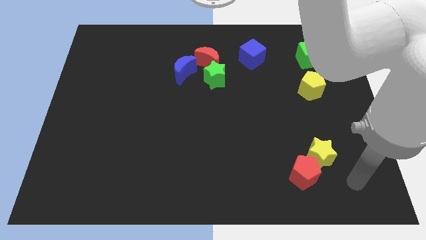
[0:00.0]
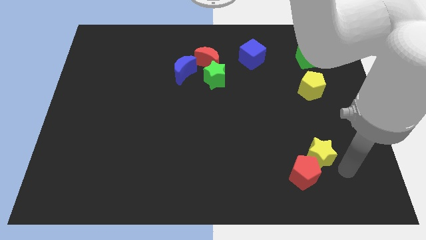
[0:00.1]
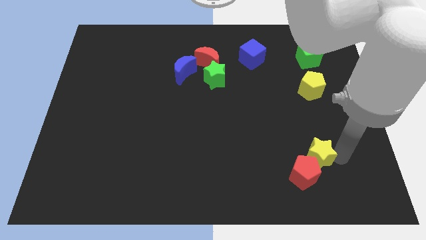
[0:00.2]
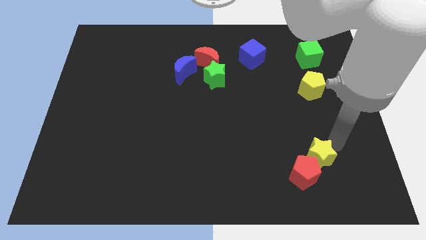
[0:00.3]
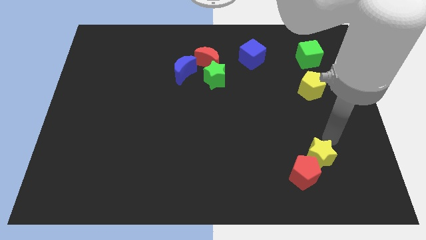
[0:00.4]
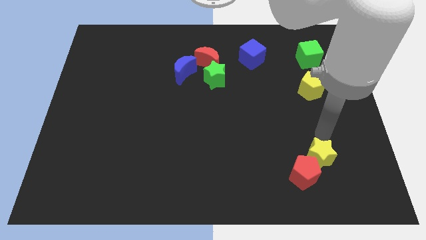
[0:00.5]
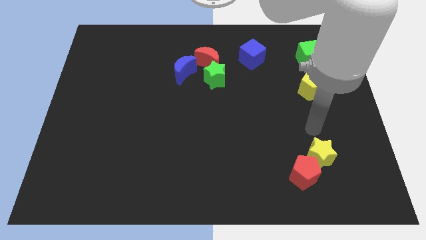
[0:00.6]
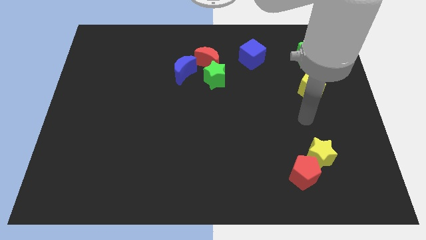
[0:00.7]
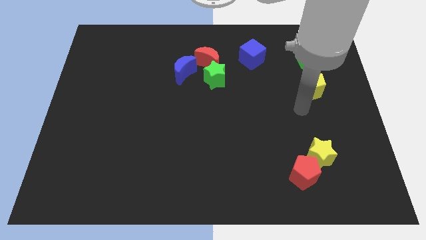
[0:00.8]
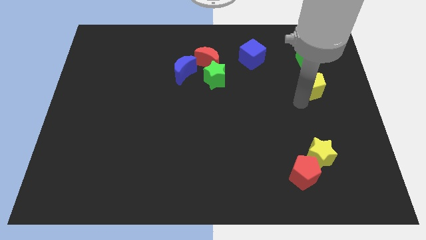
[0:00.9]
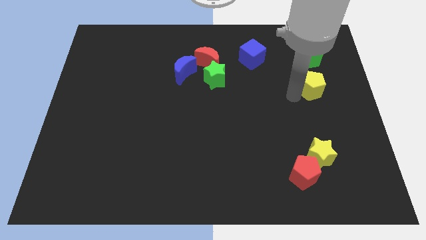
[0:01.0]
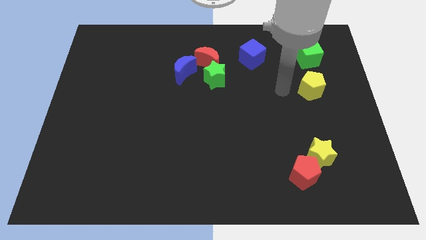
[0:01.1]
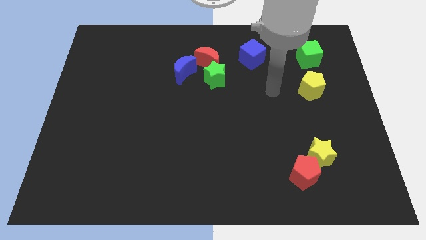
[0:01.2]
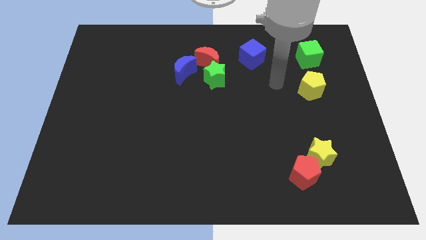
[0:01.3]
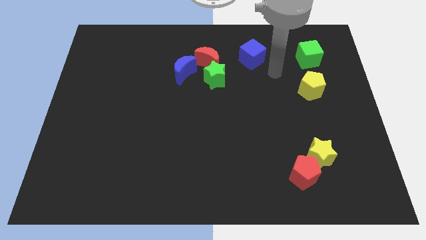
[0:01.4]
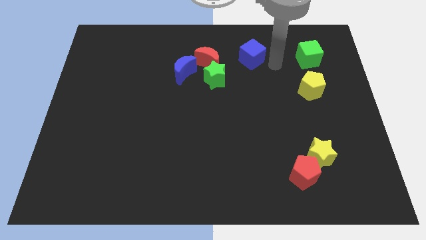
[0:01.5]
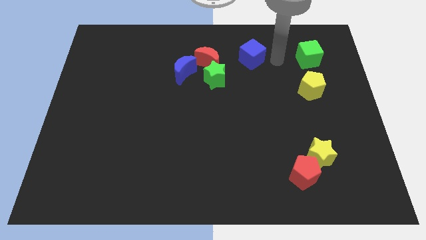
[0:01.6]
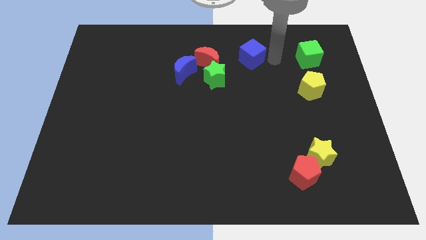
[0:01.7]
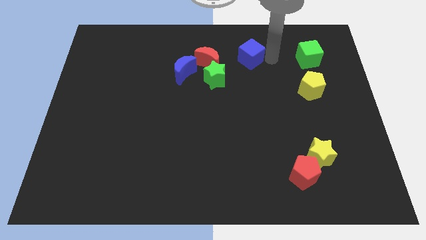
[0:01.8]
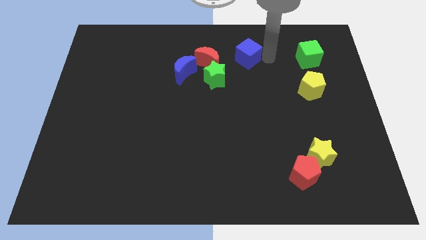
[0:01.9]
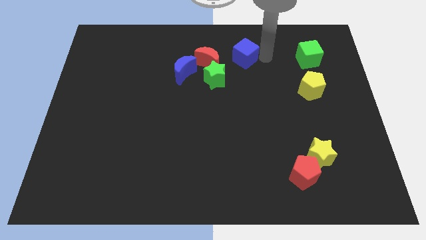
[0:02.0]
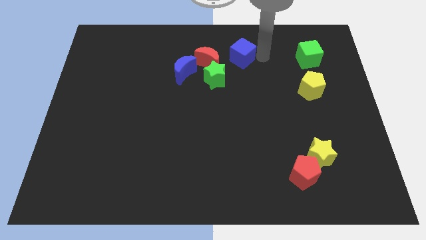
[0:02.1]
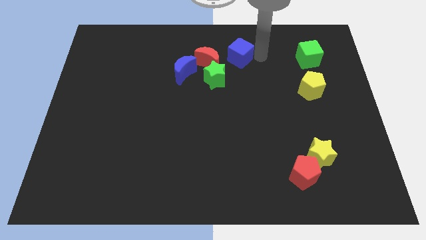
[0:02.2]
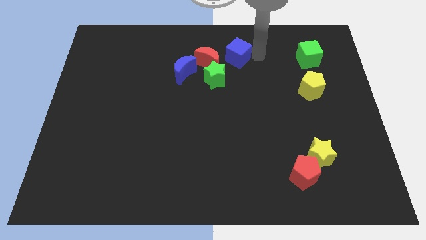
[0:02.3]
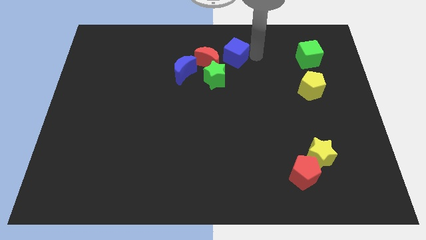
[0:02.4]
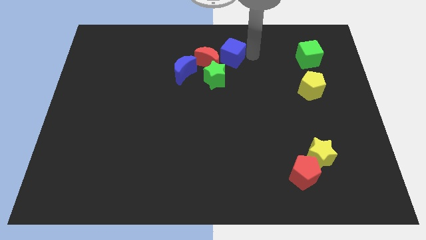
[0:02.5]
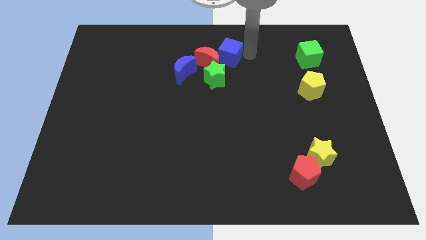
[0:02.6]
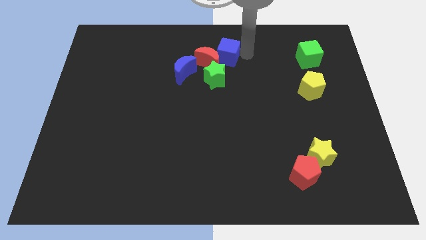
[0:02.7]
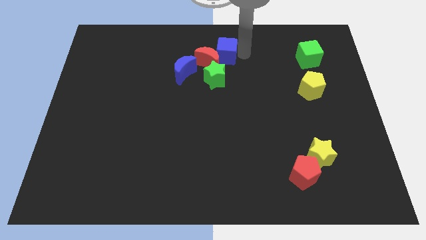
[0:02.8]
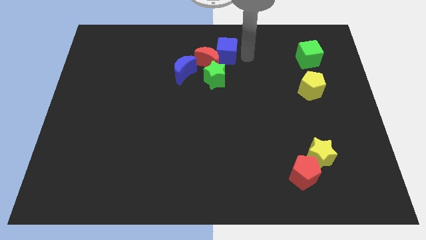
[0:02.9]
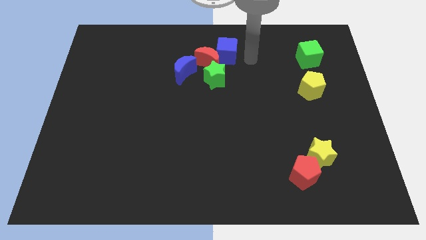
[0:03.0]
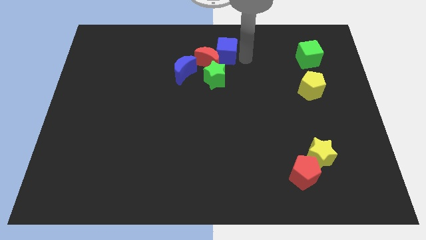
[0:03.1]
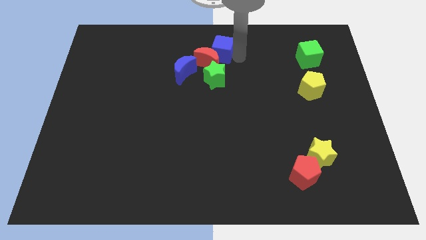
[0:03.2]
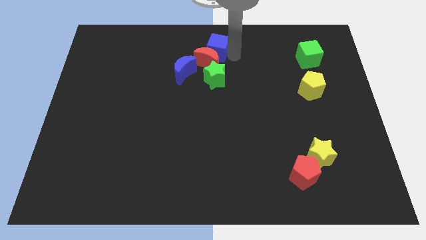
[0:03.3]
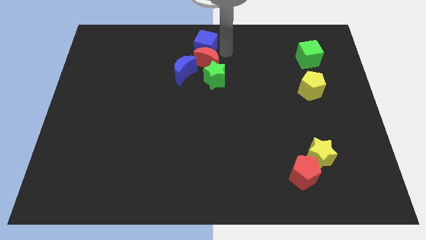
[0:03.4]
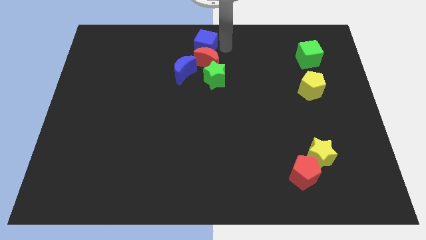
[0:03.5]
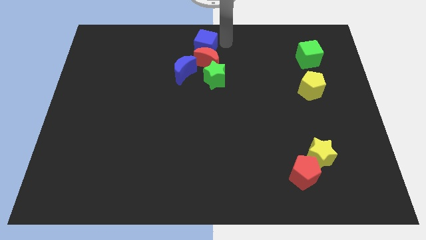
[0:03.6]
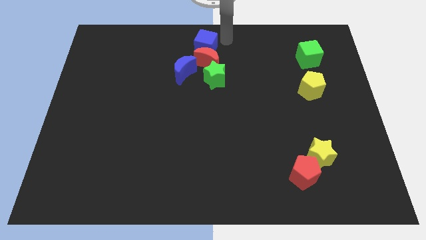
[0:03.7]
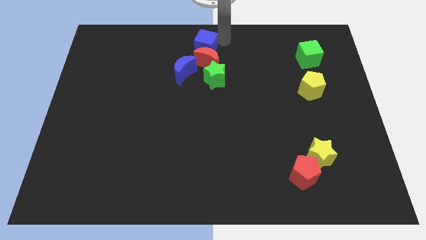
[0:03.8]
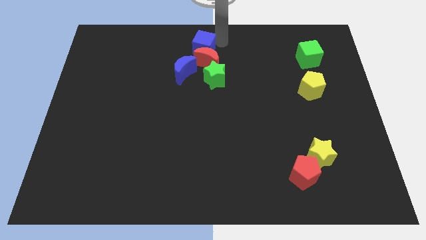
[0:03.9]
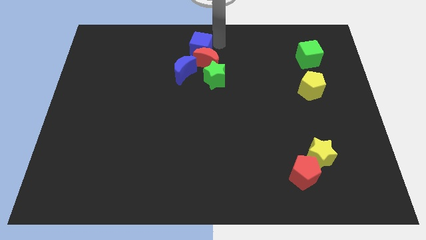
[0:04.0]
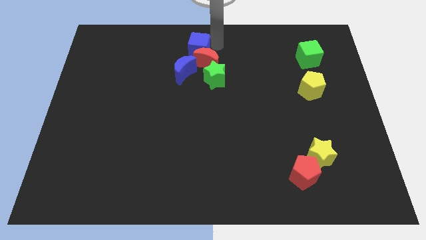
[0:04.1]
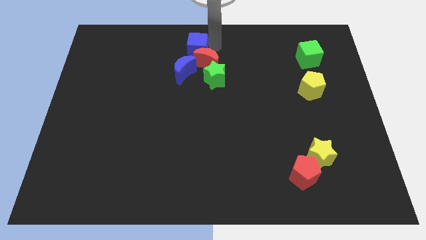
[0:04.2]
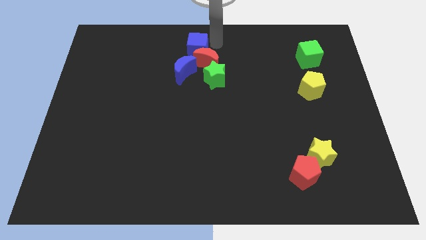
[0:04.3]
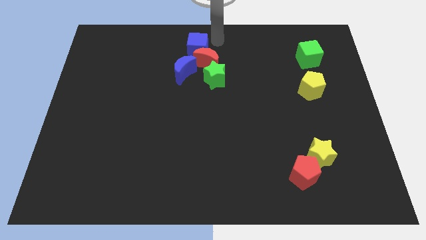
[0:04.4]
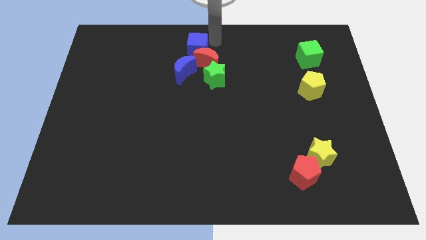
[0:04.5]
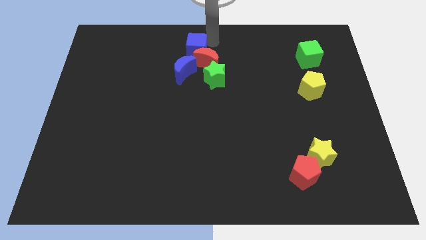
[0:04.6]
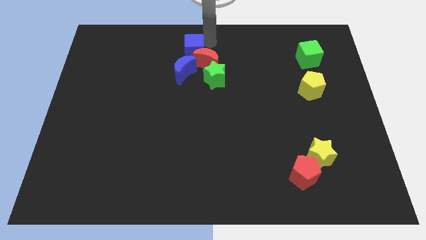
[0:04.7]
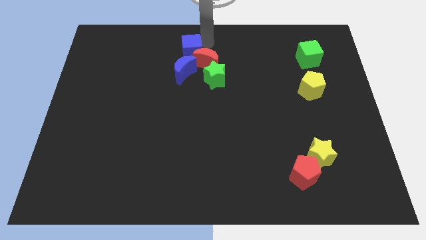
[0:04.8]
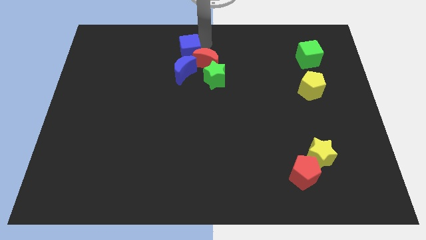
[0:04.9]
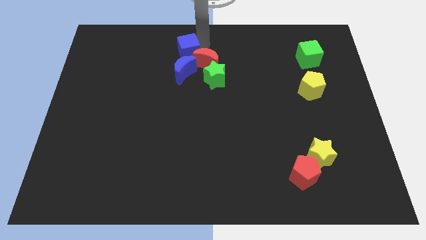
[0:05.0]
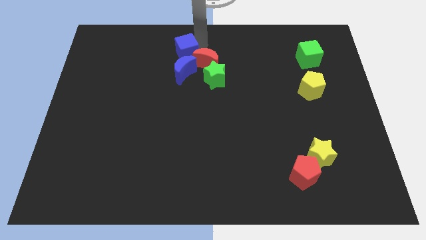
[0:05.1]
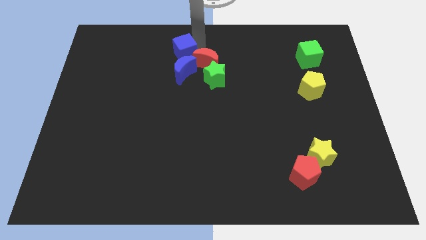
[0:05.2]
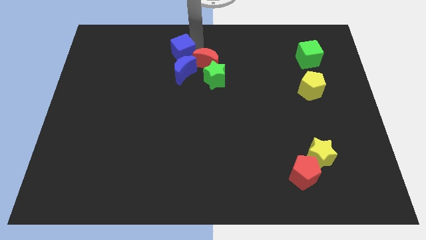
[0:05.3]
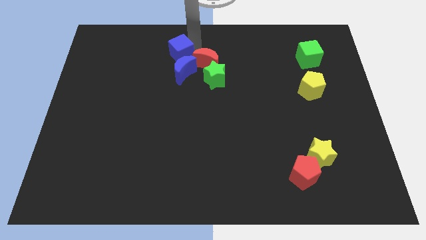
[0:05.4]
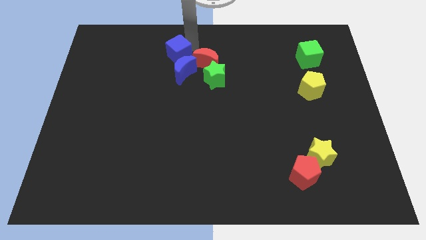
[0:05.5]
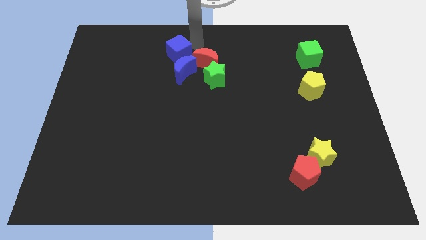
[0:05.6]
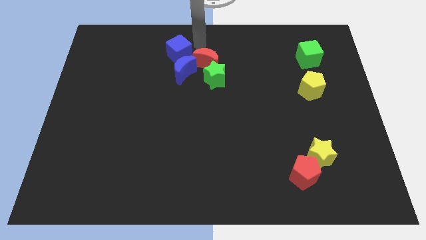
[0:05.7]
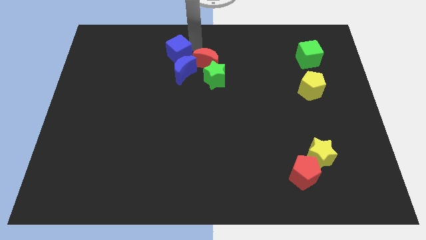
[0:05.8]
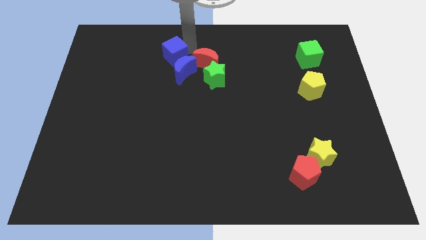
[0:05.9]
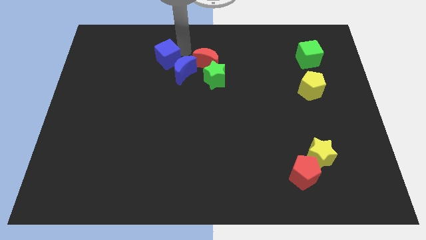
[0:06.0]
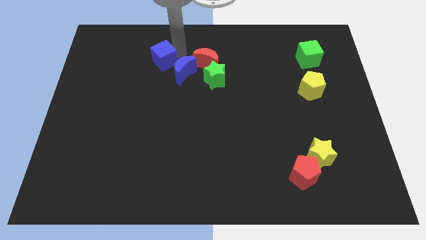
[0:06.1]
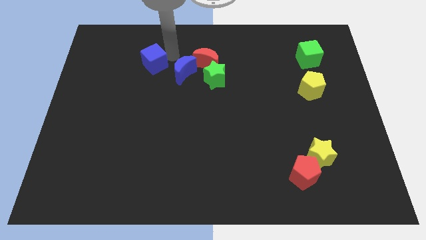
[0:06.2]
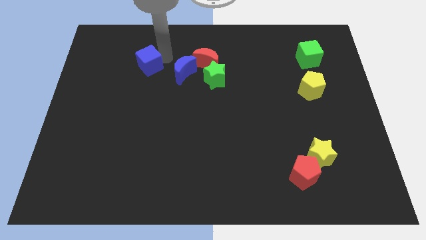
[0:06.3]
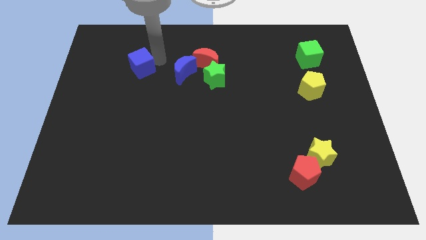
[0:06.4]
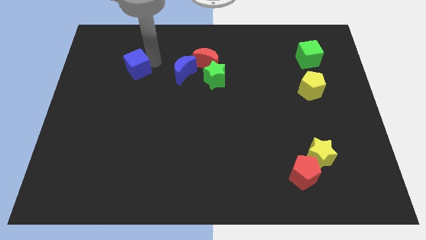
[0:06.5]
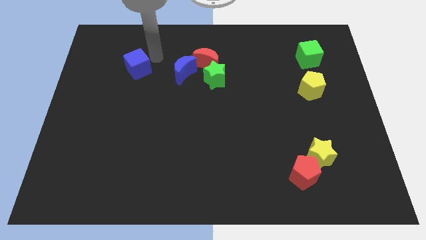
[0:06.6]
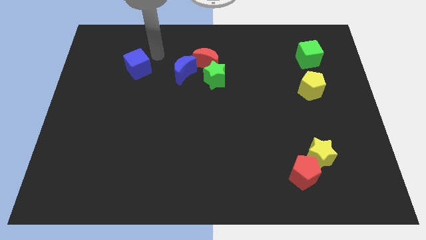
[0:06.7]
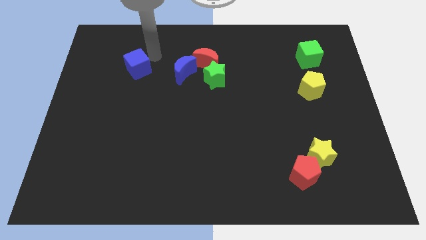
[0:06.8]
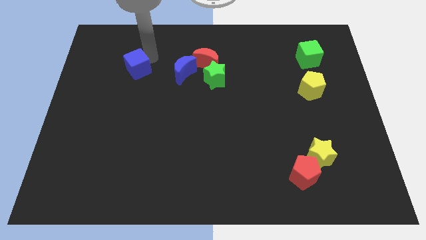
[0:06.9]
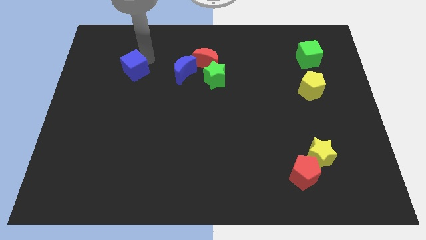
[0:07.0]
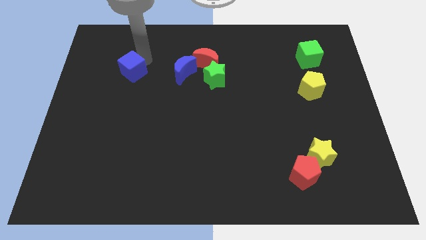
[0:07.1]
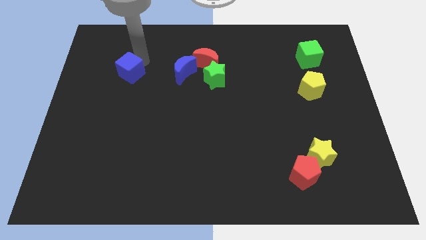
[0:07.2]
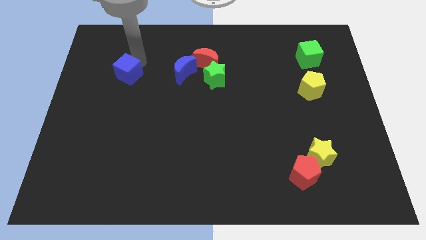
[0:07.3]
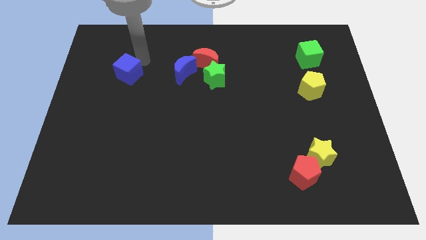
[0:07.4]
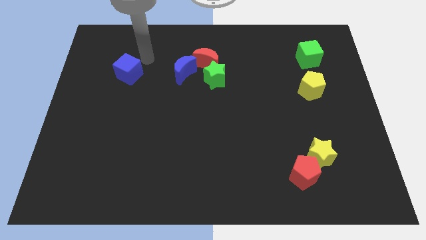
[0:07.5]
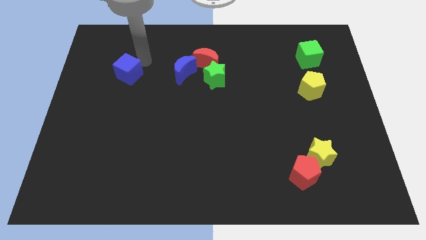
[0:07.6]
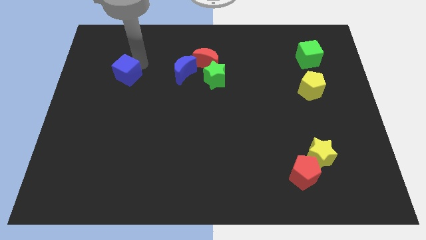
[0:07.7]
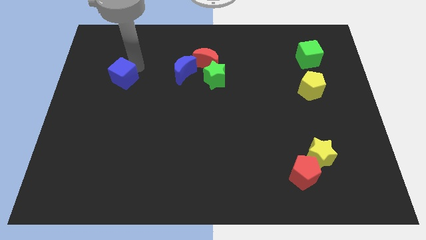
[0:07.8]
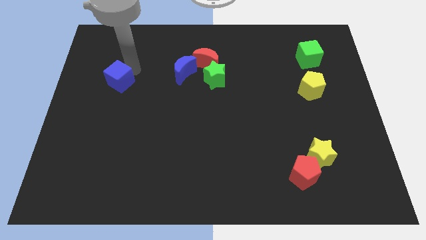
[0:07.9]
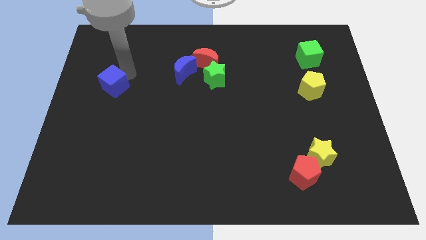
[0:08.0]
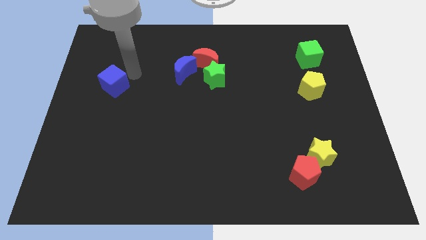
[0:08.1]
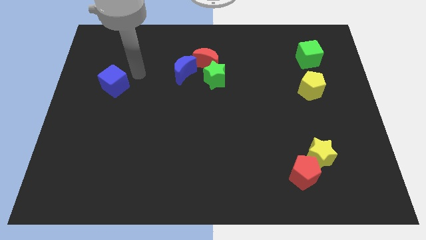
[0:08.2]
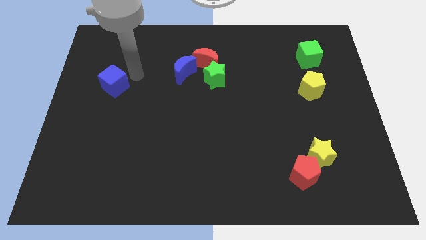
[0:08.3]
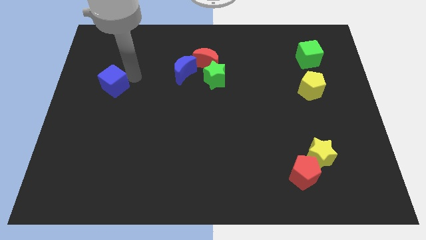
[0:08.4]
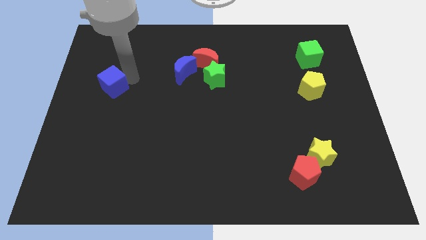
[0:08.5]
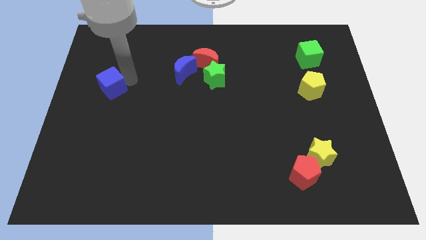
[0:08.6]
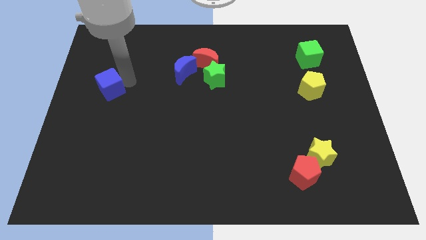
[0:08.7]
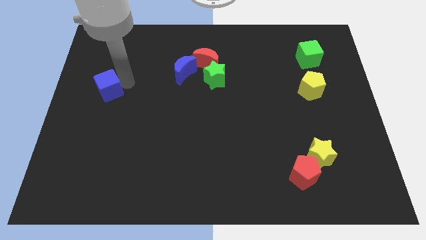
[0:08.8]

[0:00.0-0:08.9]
move the blue cube to the left side
